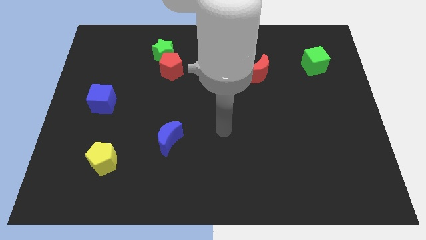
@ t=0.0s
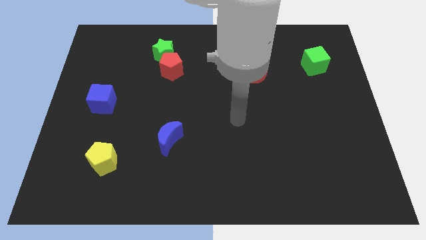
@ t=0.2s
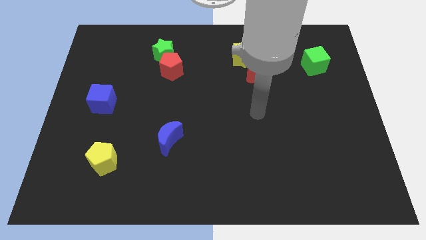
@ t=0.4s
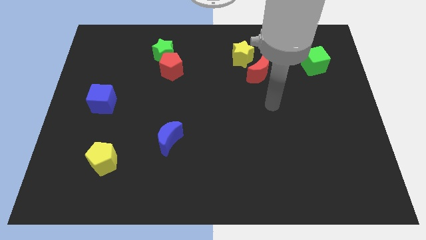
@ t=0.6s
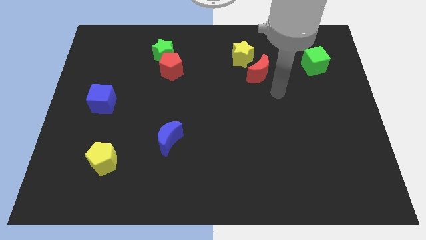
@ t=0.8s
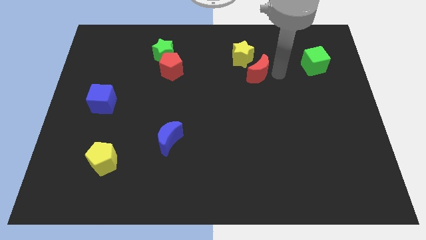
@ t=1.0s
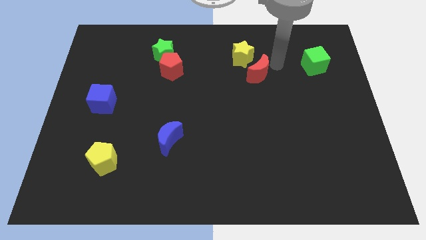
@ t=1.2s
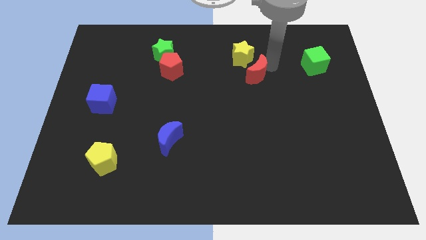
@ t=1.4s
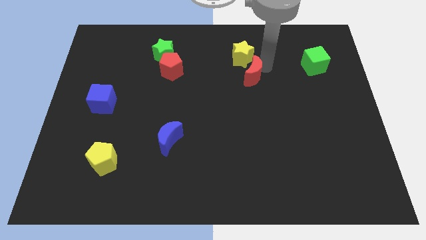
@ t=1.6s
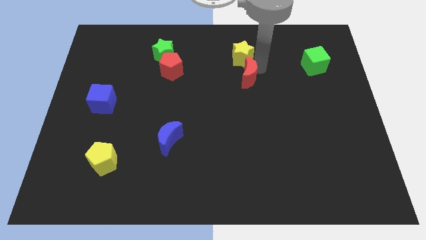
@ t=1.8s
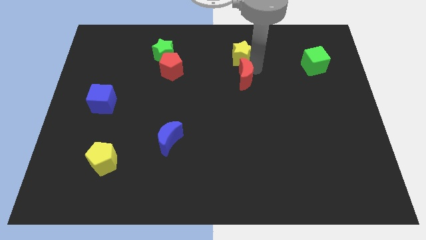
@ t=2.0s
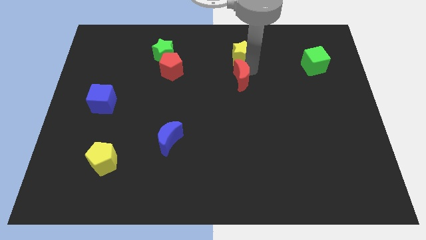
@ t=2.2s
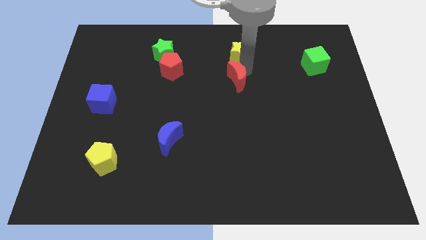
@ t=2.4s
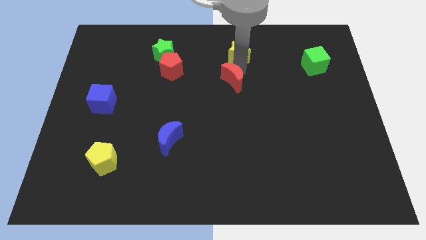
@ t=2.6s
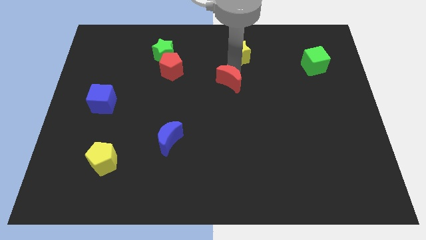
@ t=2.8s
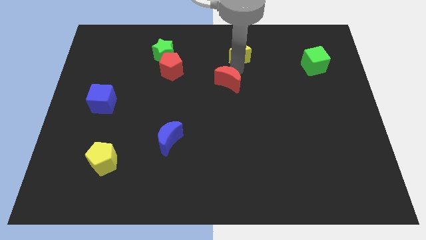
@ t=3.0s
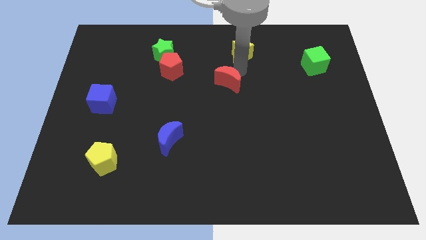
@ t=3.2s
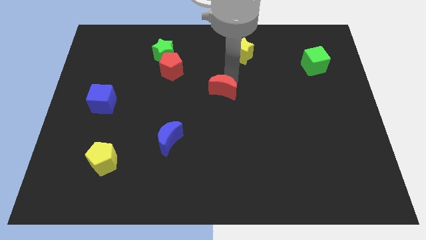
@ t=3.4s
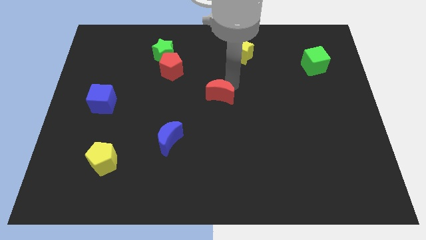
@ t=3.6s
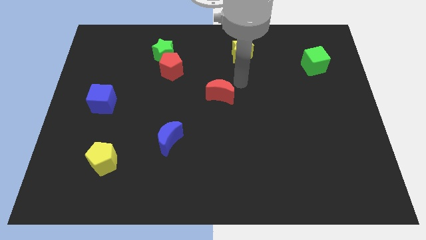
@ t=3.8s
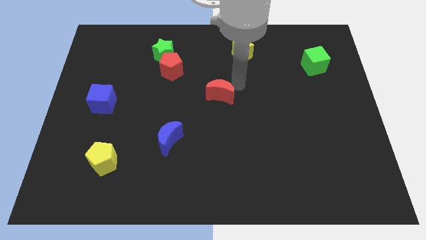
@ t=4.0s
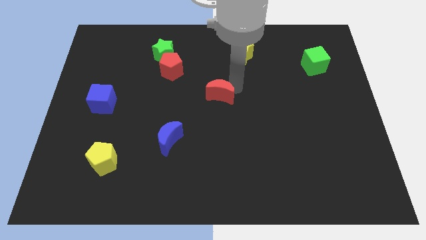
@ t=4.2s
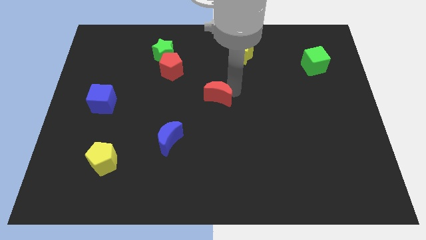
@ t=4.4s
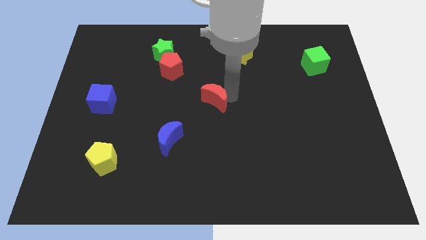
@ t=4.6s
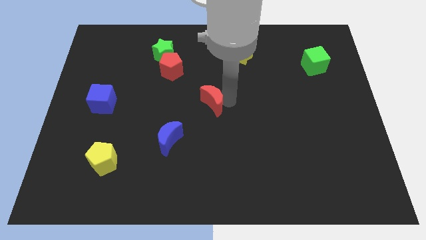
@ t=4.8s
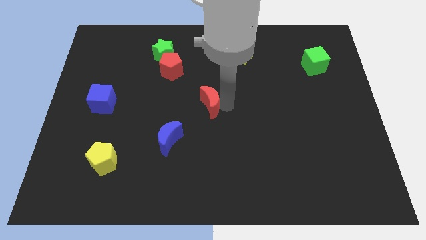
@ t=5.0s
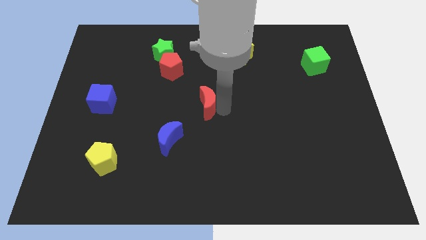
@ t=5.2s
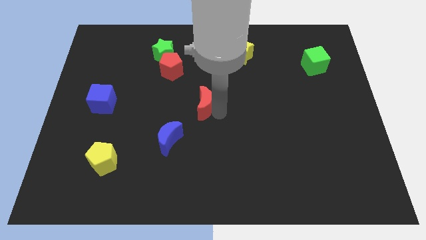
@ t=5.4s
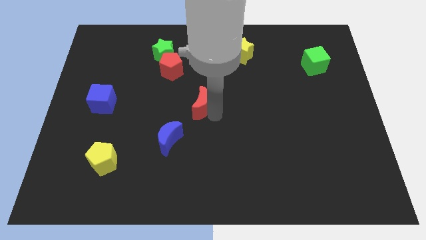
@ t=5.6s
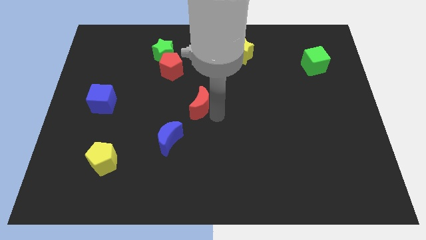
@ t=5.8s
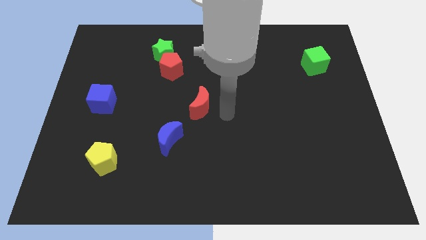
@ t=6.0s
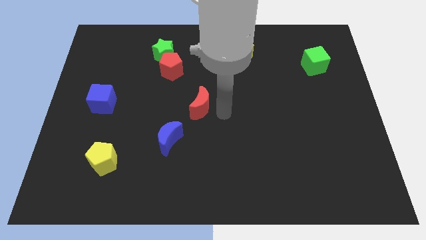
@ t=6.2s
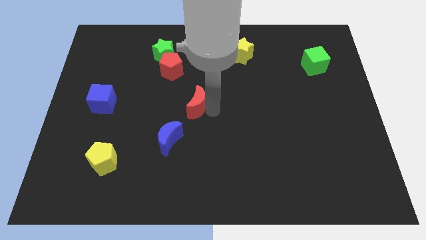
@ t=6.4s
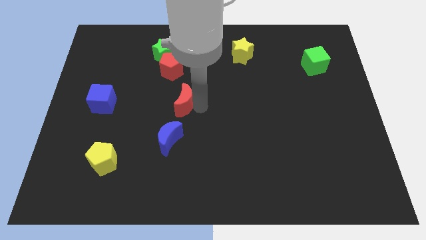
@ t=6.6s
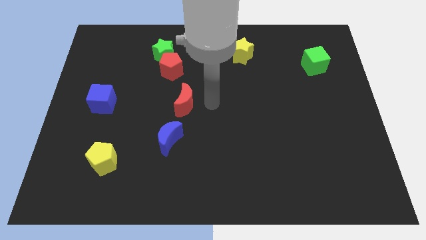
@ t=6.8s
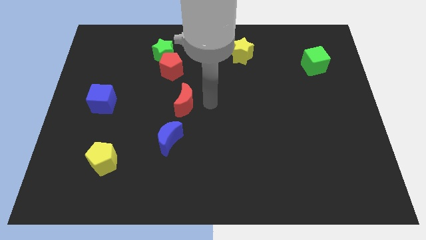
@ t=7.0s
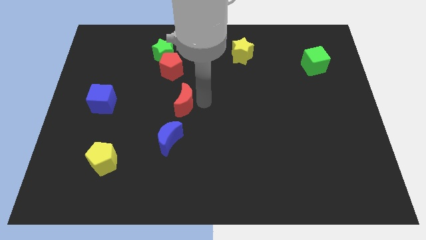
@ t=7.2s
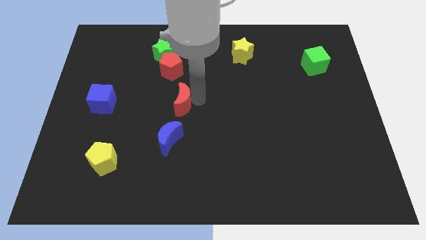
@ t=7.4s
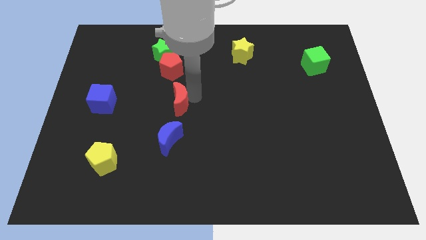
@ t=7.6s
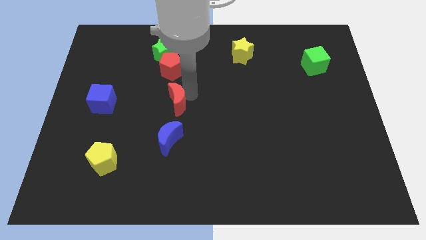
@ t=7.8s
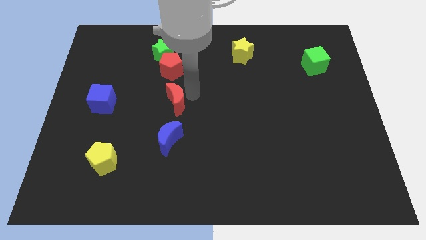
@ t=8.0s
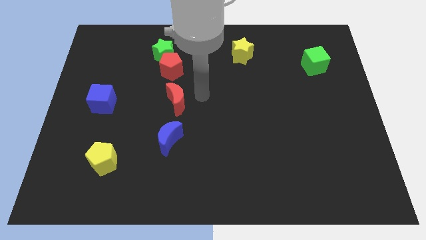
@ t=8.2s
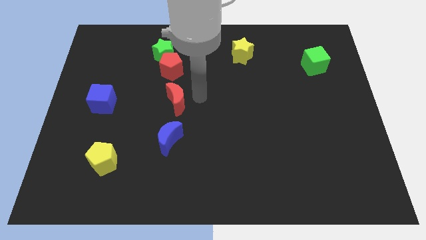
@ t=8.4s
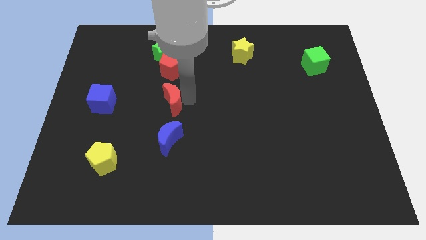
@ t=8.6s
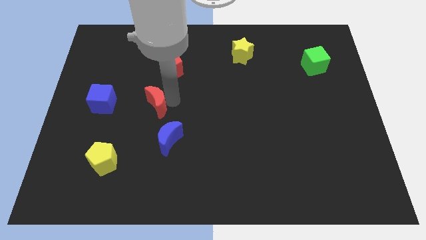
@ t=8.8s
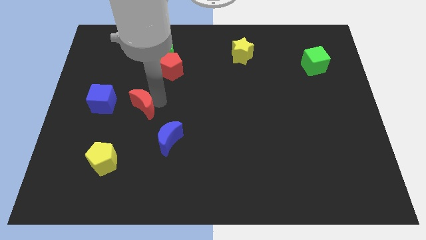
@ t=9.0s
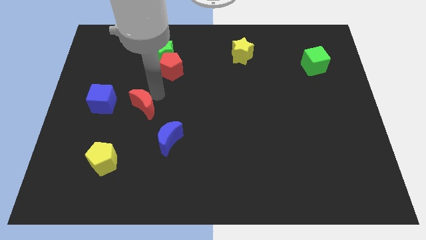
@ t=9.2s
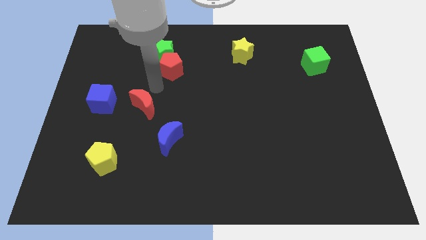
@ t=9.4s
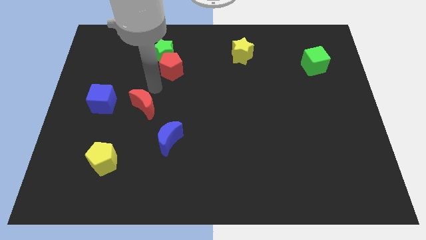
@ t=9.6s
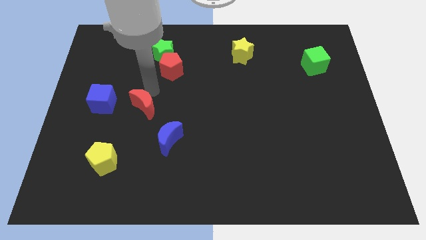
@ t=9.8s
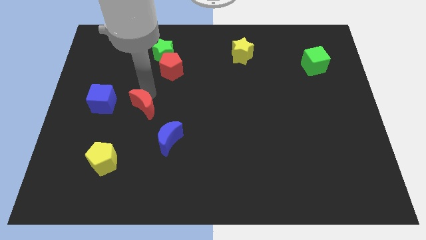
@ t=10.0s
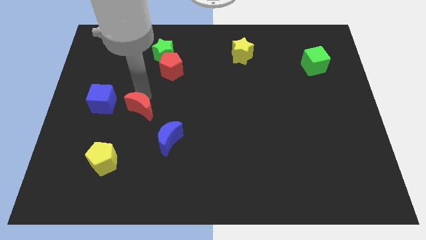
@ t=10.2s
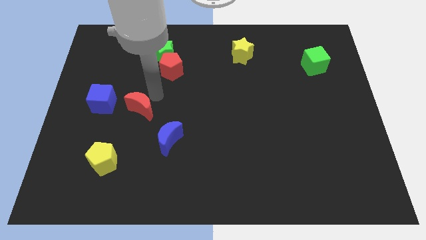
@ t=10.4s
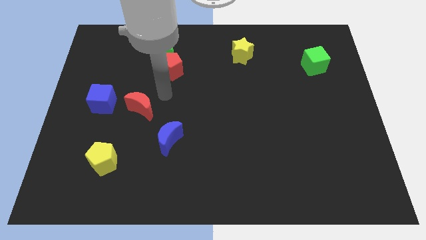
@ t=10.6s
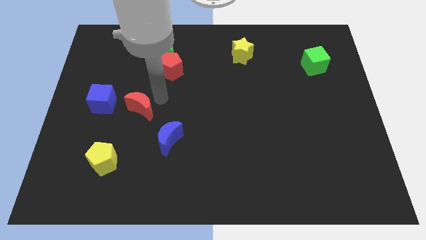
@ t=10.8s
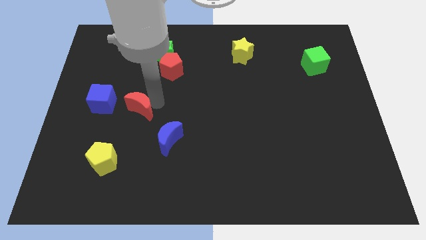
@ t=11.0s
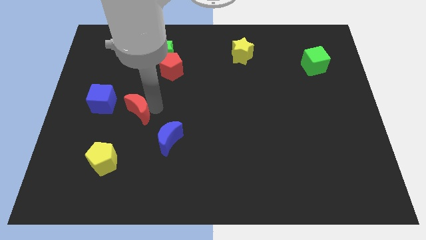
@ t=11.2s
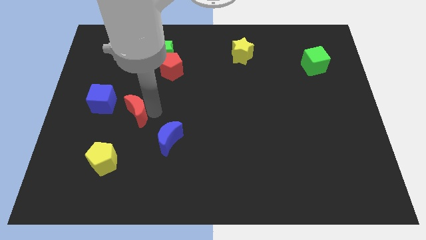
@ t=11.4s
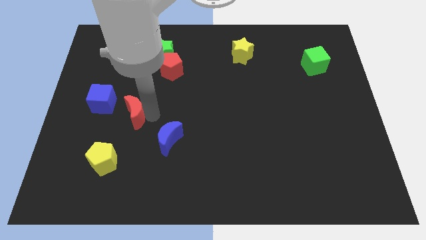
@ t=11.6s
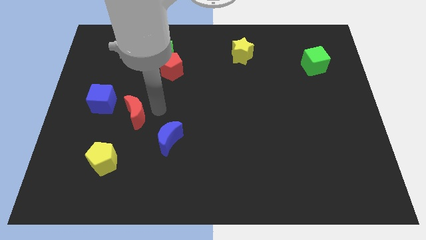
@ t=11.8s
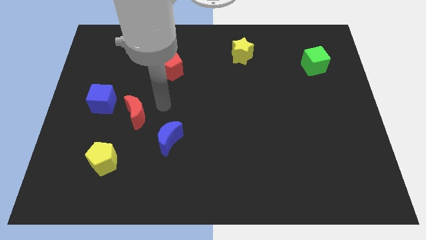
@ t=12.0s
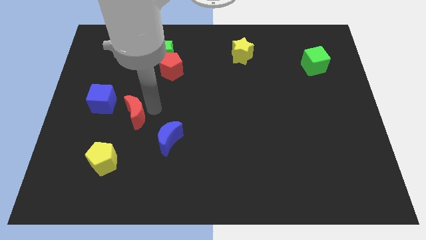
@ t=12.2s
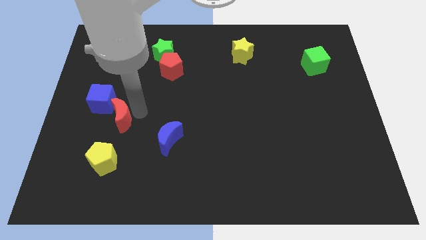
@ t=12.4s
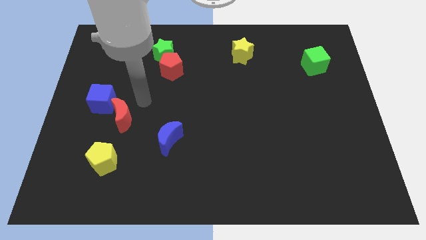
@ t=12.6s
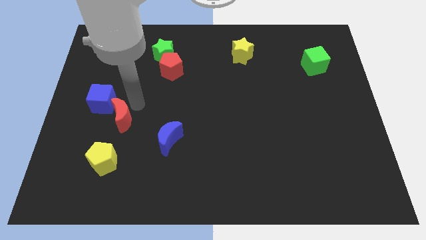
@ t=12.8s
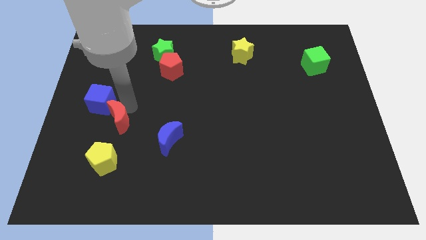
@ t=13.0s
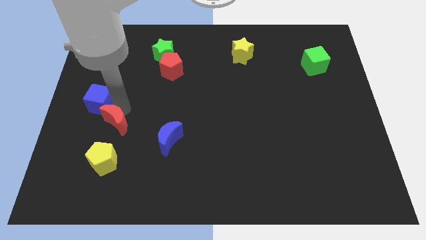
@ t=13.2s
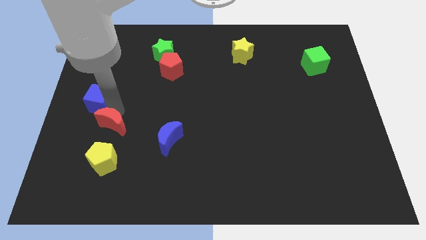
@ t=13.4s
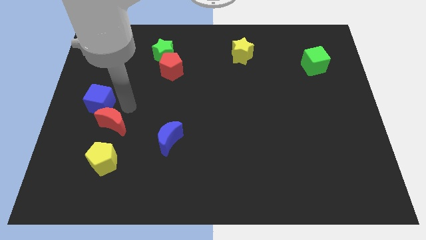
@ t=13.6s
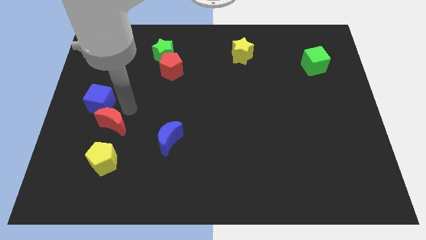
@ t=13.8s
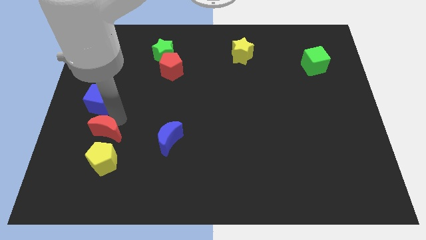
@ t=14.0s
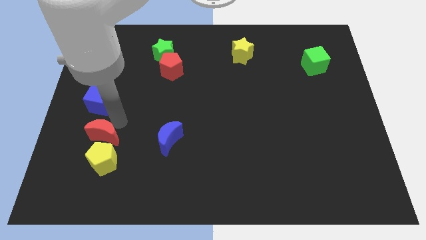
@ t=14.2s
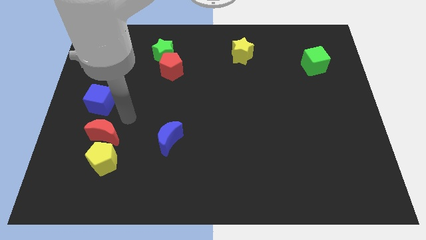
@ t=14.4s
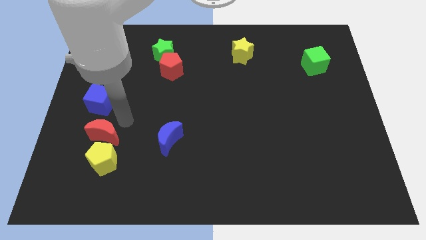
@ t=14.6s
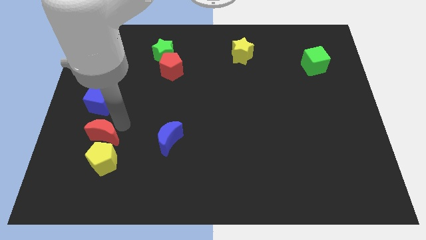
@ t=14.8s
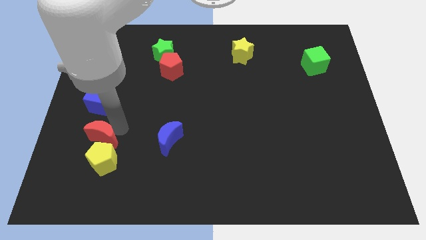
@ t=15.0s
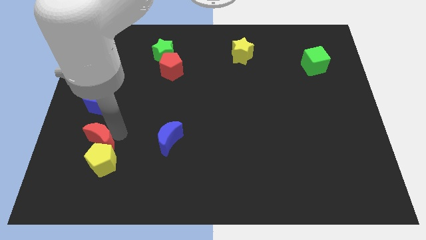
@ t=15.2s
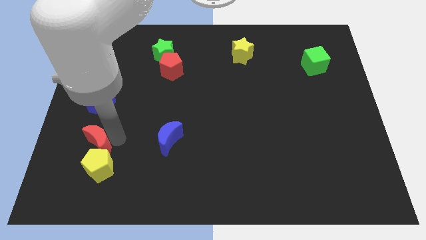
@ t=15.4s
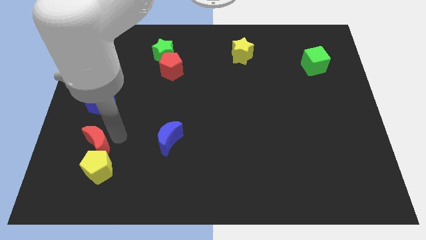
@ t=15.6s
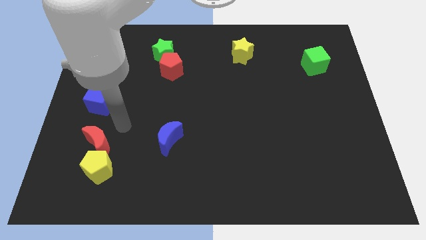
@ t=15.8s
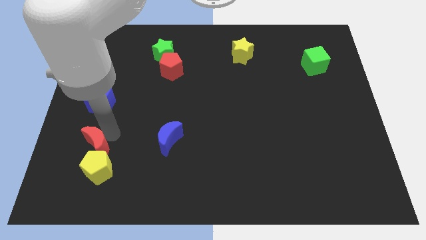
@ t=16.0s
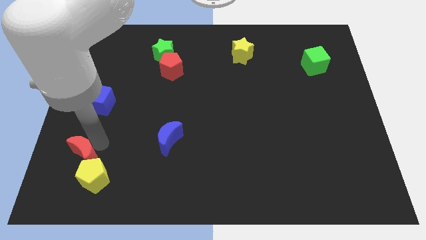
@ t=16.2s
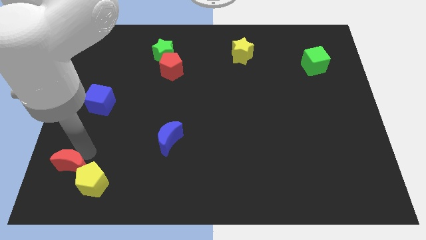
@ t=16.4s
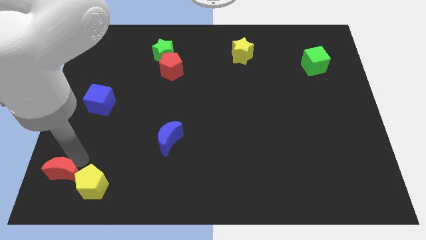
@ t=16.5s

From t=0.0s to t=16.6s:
slide the red moon to the bottom left
